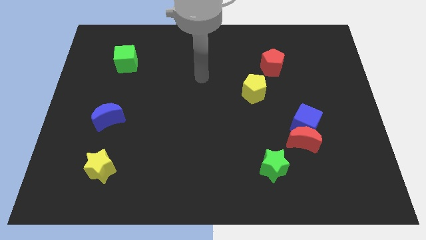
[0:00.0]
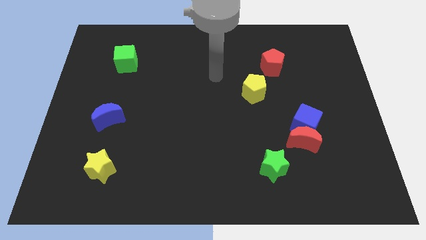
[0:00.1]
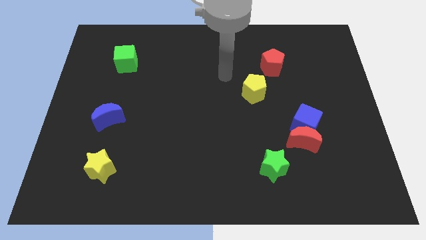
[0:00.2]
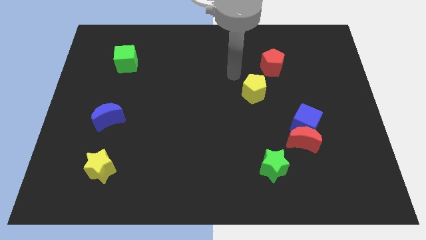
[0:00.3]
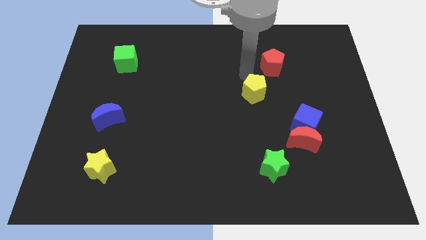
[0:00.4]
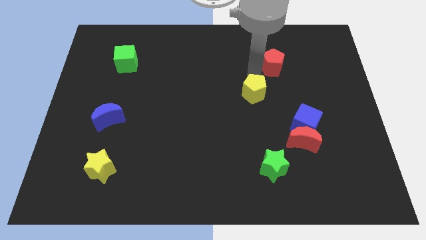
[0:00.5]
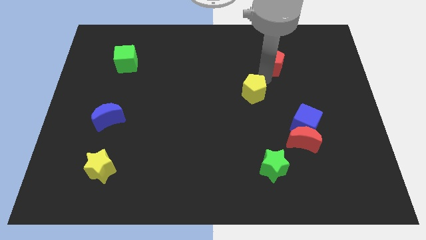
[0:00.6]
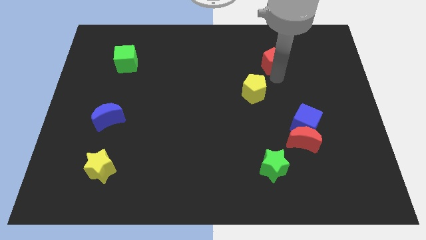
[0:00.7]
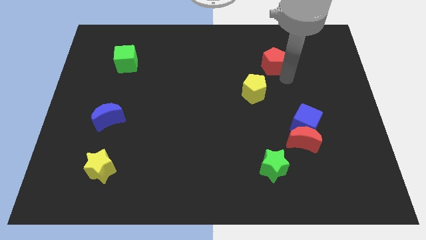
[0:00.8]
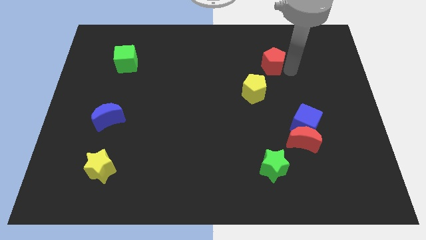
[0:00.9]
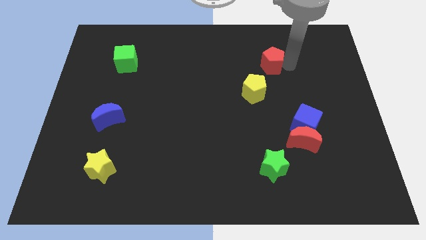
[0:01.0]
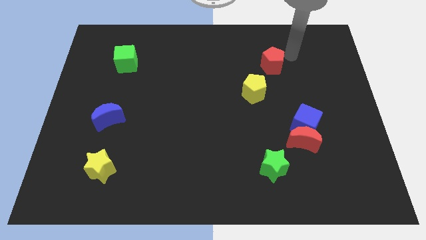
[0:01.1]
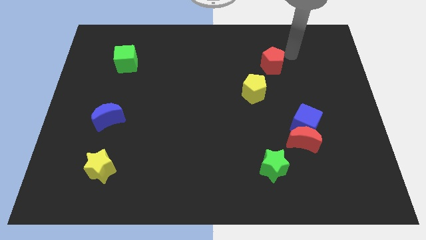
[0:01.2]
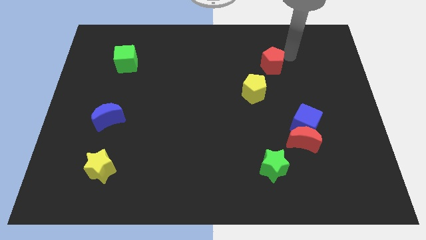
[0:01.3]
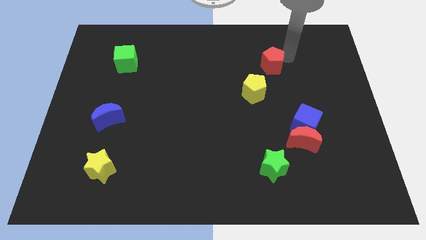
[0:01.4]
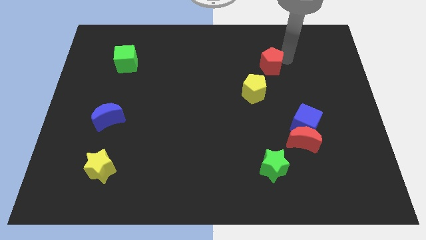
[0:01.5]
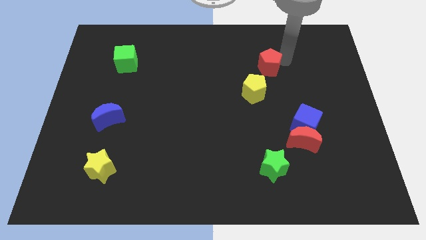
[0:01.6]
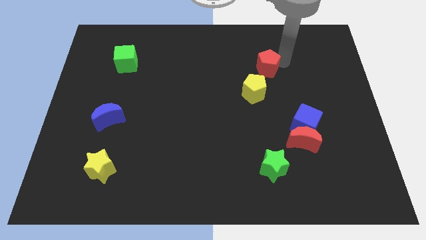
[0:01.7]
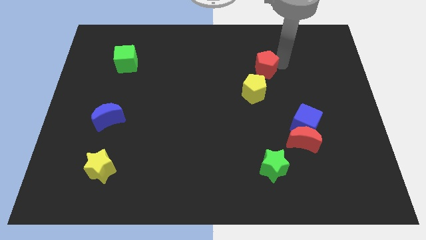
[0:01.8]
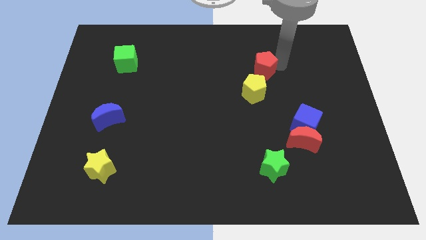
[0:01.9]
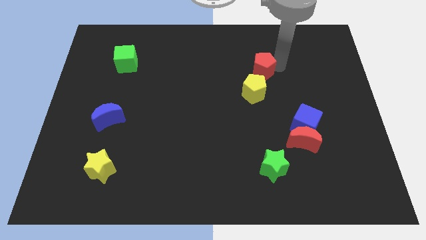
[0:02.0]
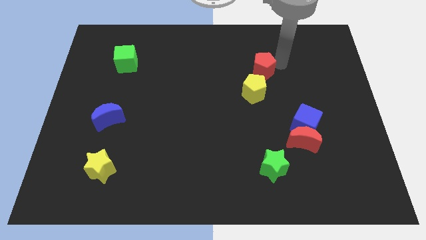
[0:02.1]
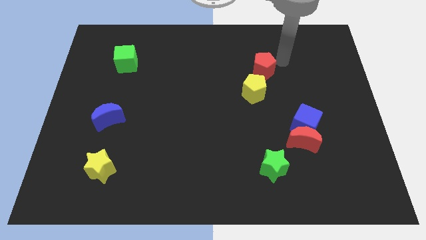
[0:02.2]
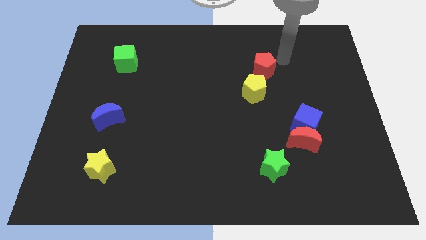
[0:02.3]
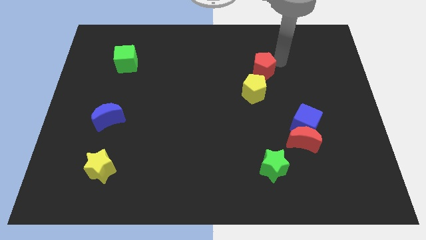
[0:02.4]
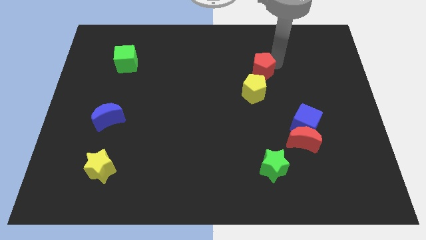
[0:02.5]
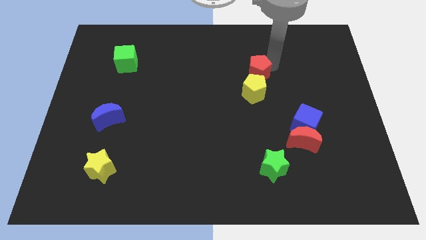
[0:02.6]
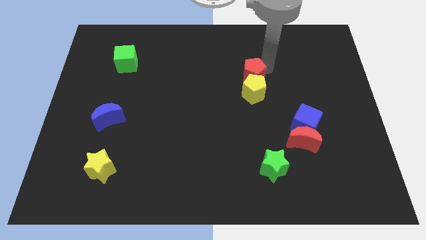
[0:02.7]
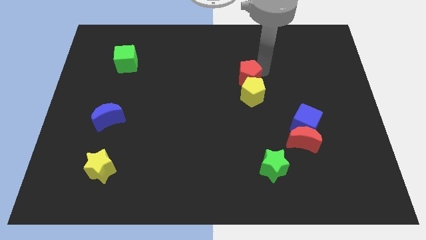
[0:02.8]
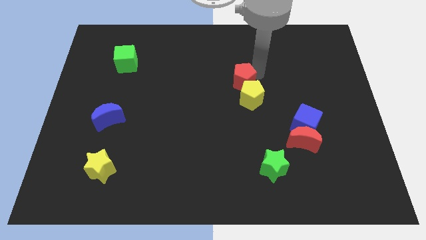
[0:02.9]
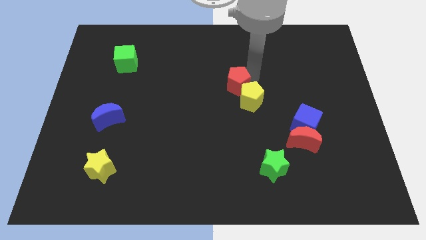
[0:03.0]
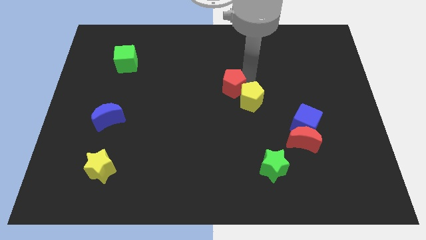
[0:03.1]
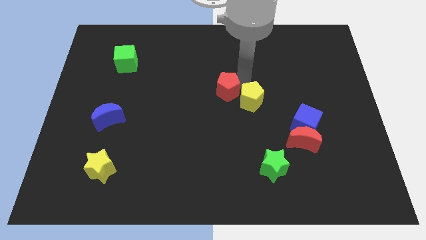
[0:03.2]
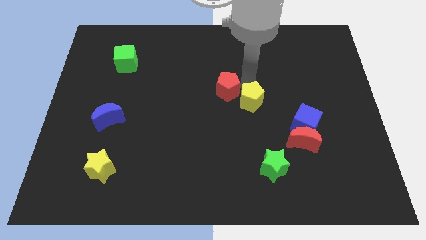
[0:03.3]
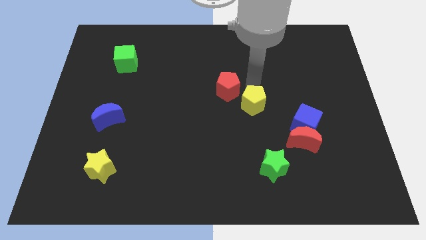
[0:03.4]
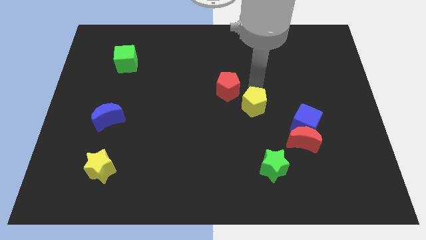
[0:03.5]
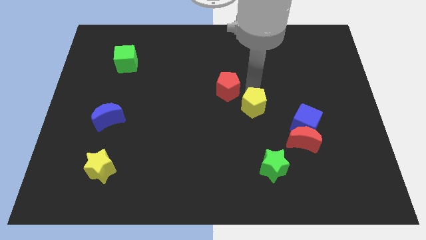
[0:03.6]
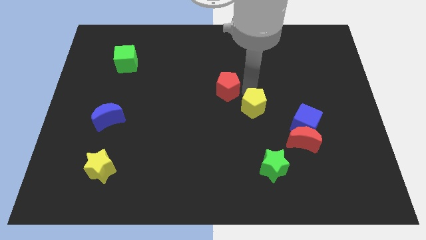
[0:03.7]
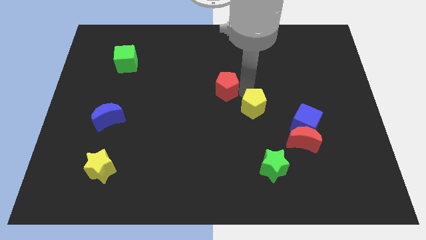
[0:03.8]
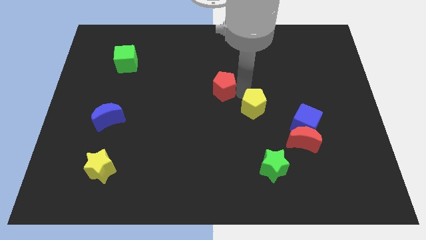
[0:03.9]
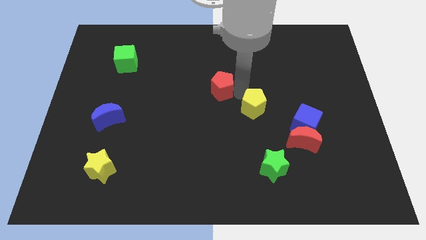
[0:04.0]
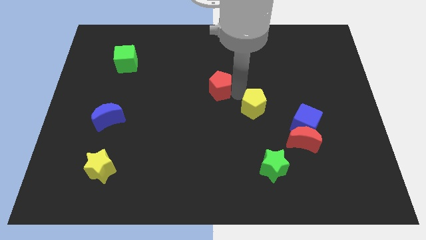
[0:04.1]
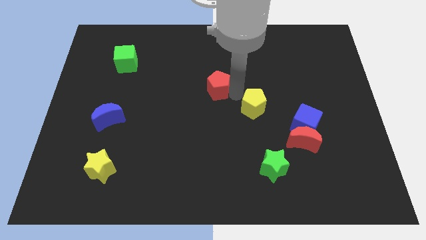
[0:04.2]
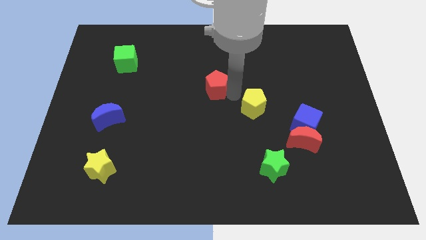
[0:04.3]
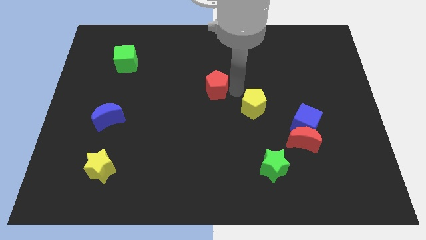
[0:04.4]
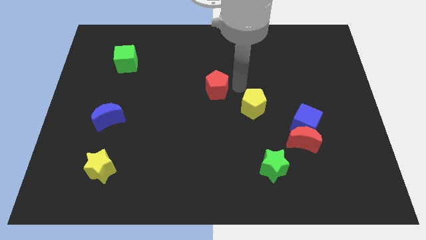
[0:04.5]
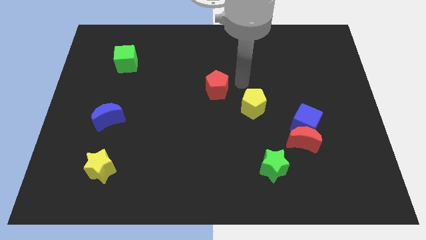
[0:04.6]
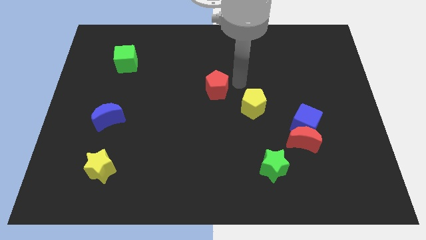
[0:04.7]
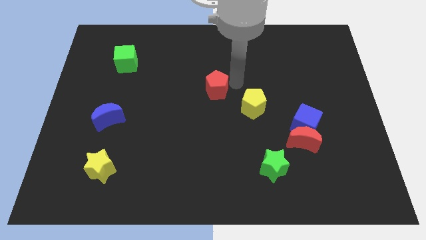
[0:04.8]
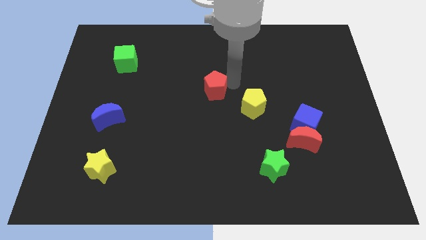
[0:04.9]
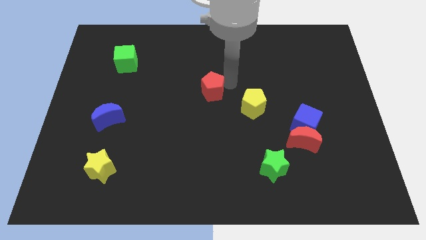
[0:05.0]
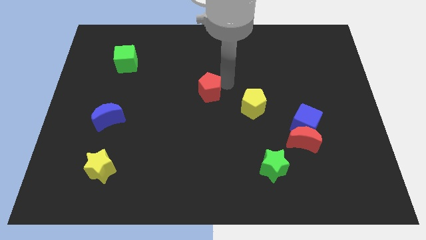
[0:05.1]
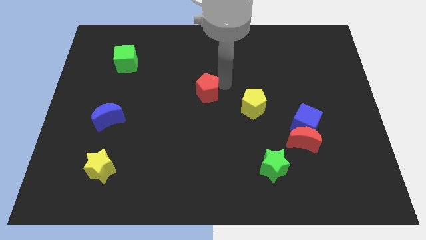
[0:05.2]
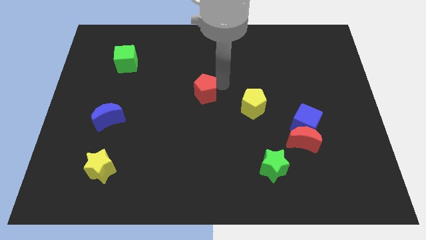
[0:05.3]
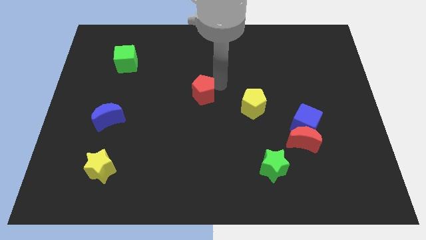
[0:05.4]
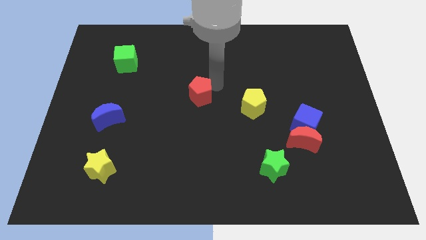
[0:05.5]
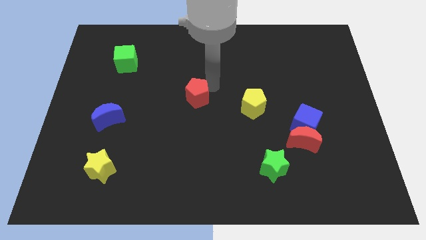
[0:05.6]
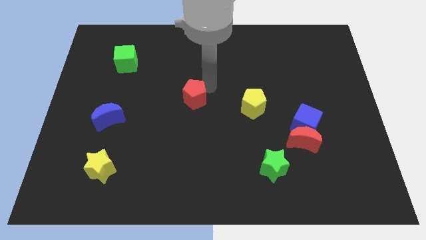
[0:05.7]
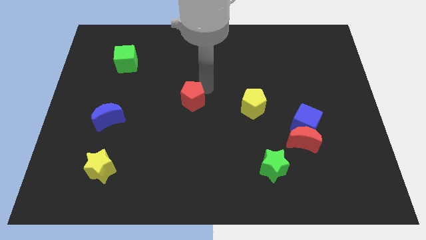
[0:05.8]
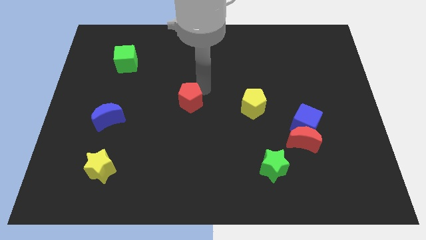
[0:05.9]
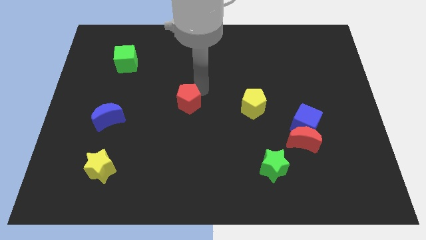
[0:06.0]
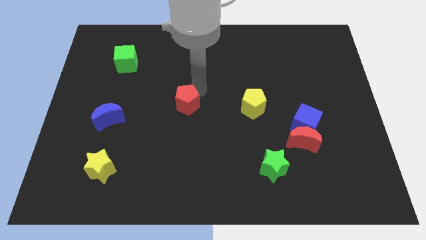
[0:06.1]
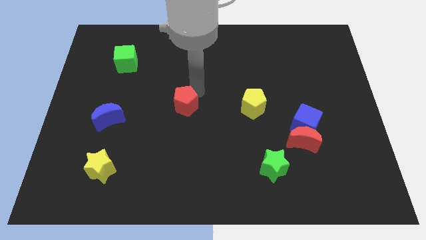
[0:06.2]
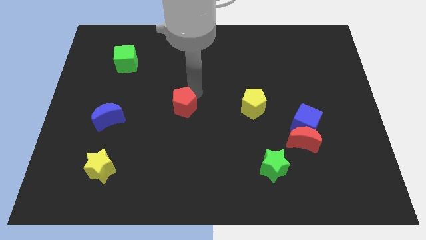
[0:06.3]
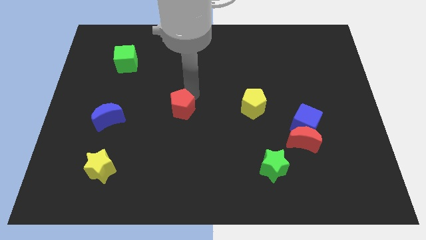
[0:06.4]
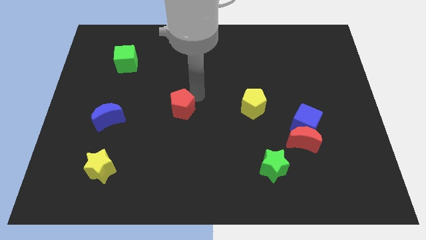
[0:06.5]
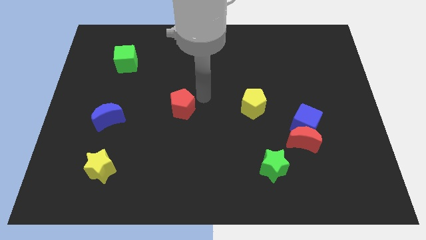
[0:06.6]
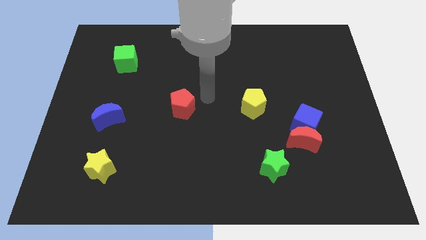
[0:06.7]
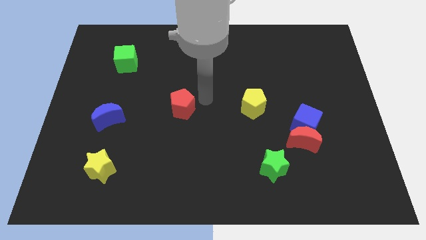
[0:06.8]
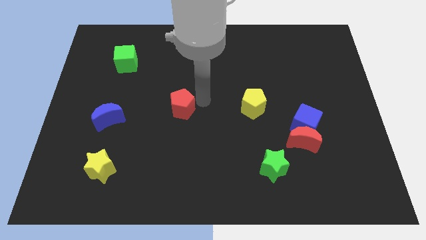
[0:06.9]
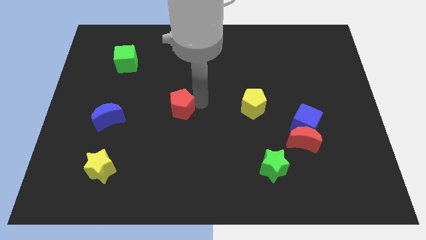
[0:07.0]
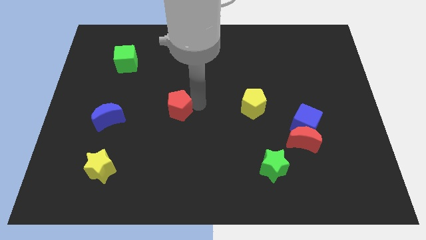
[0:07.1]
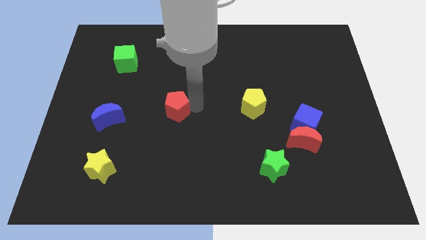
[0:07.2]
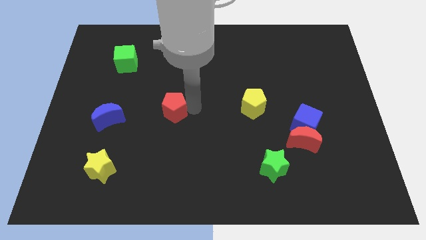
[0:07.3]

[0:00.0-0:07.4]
move the red pentagon to the right of the blue moon
